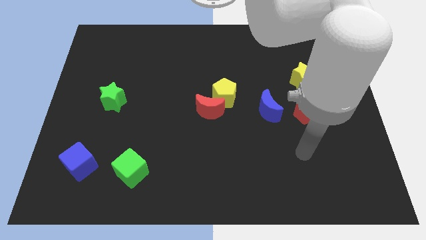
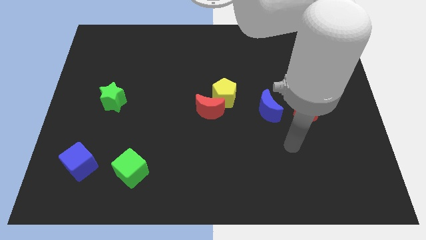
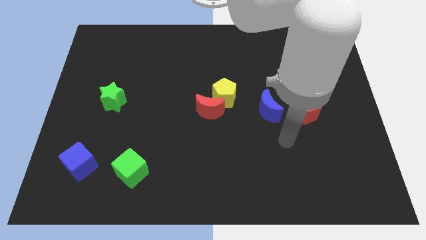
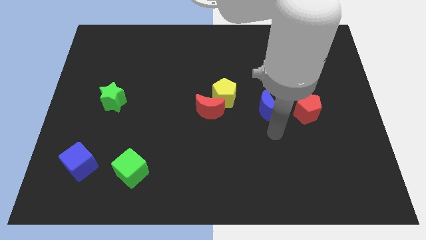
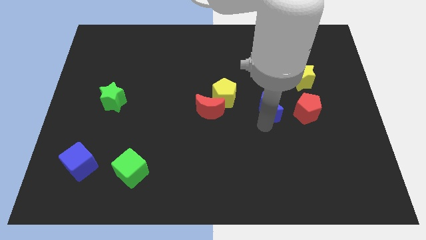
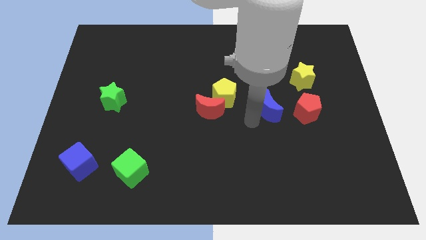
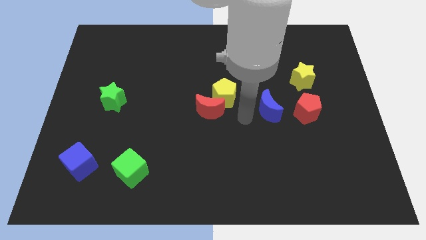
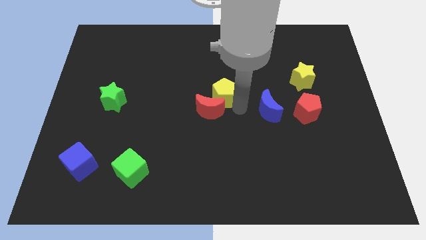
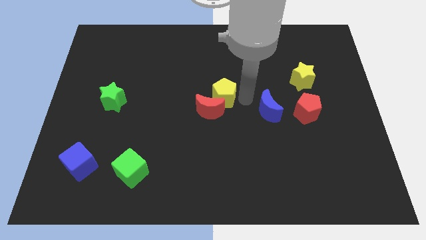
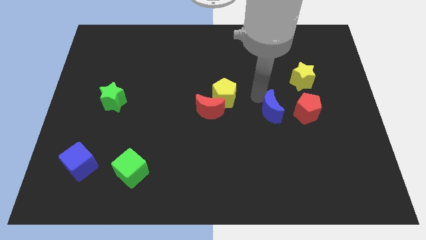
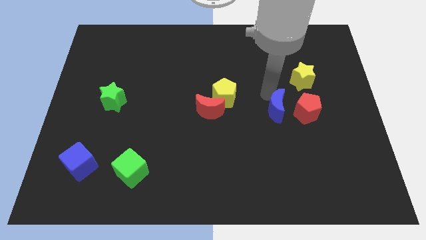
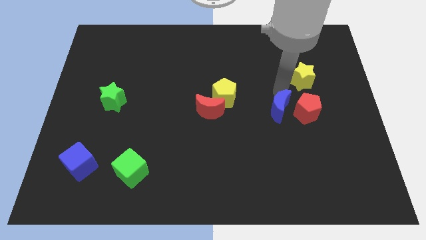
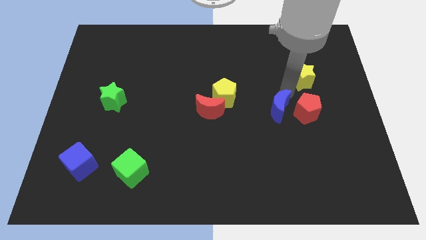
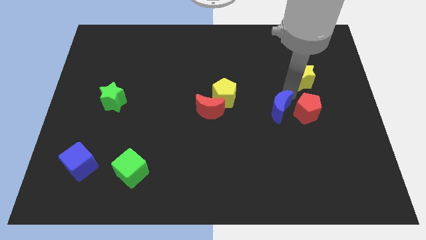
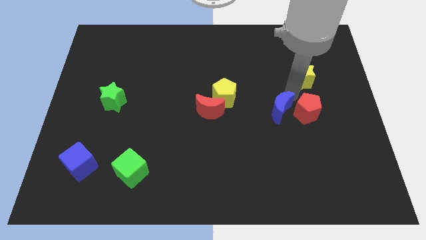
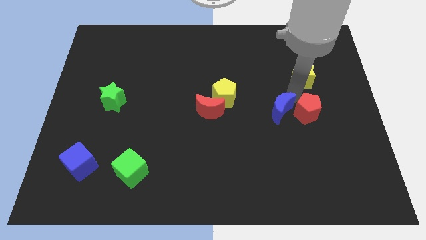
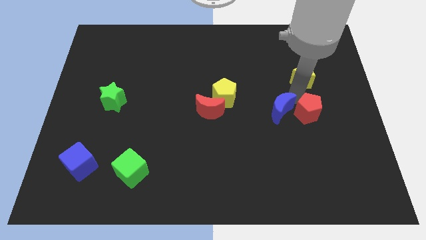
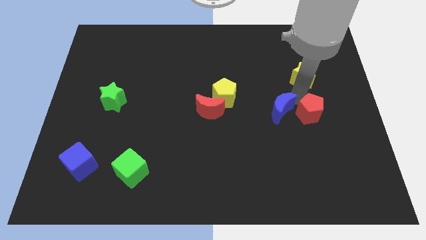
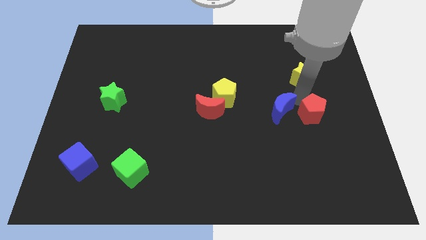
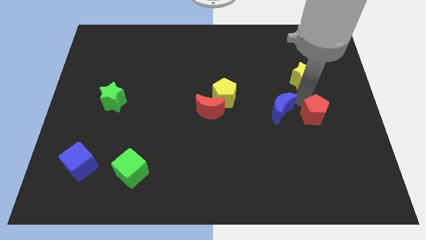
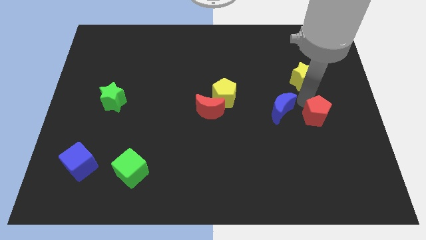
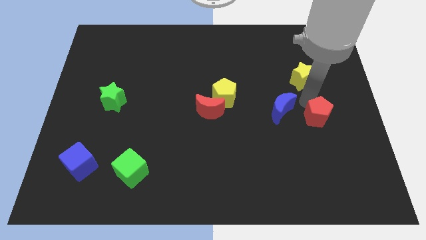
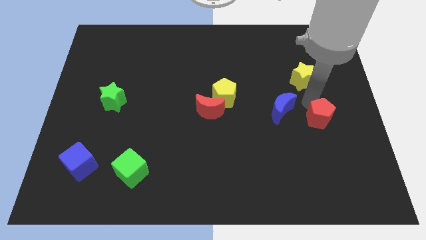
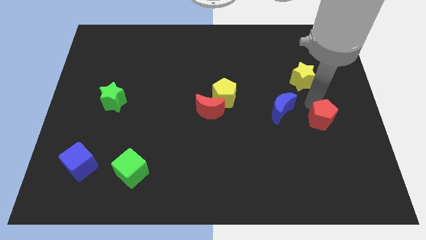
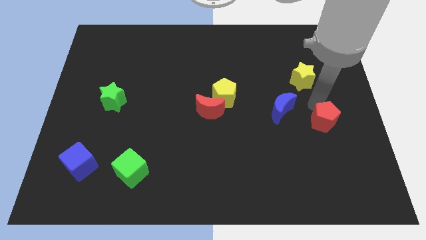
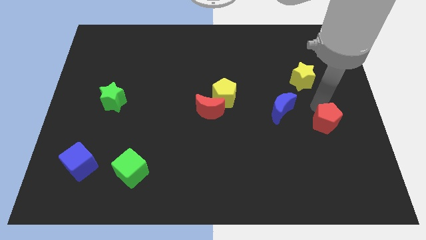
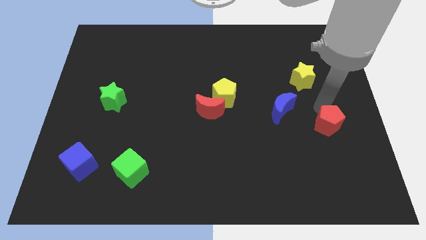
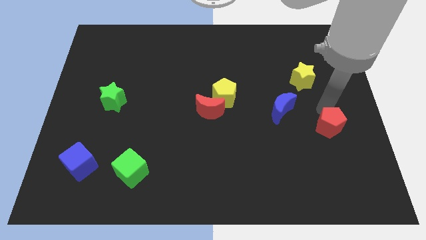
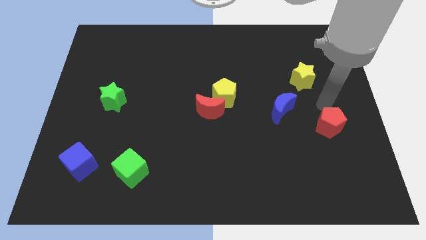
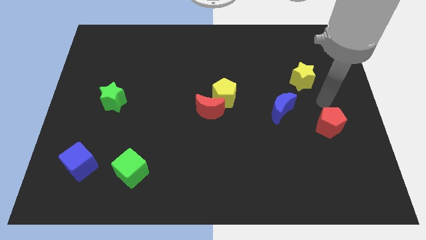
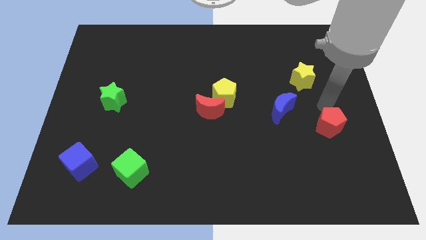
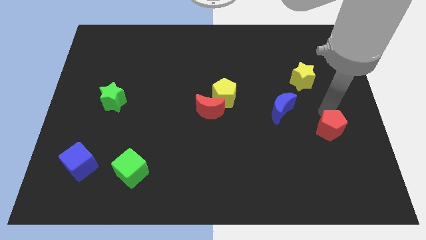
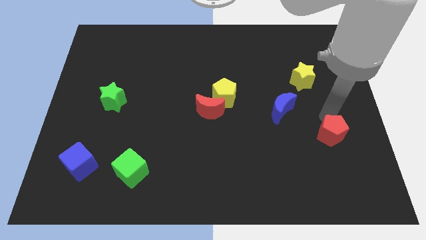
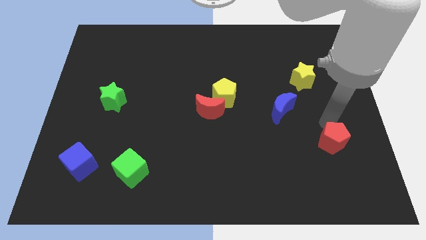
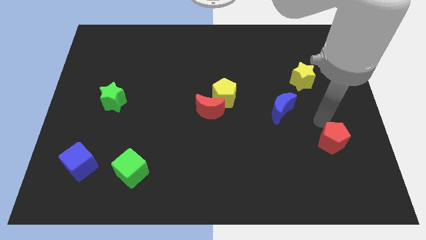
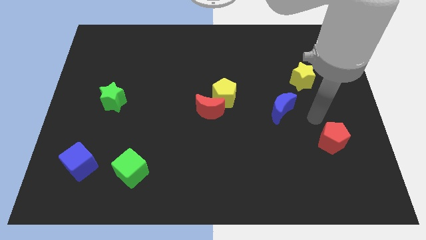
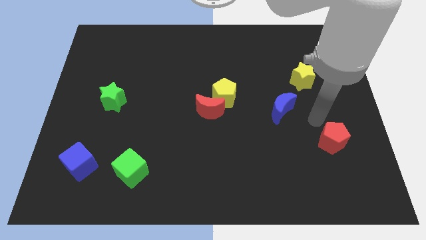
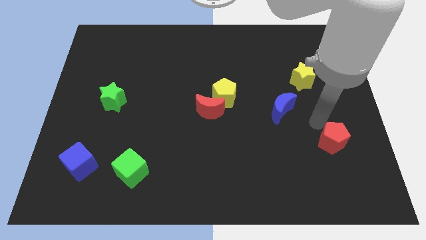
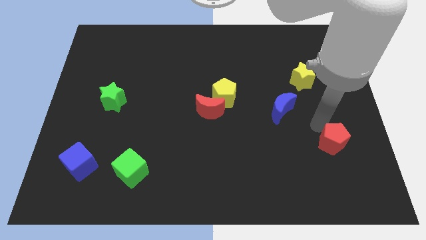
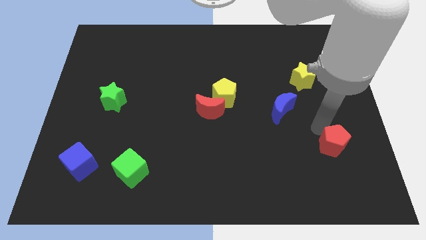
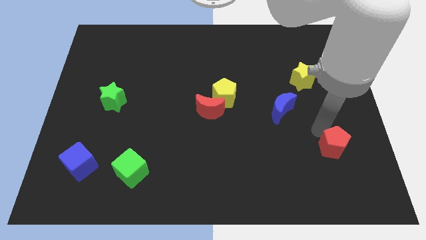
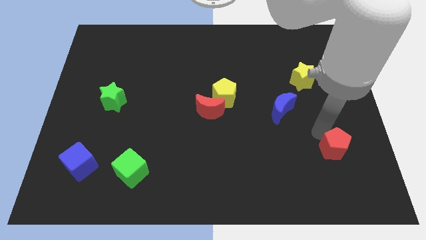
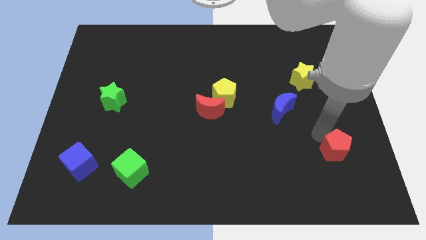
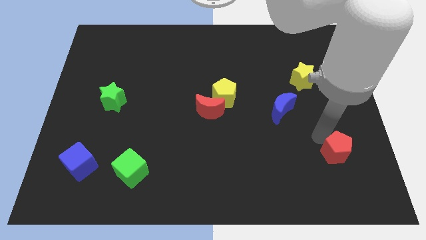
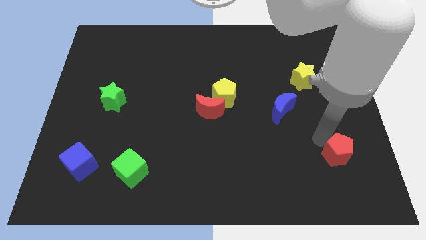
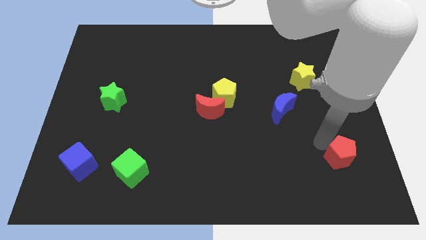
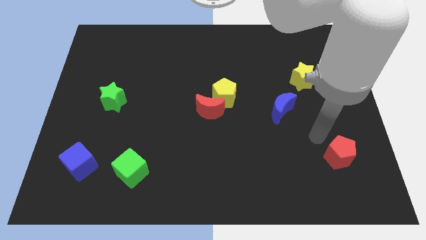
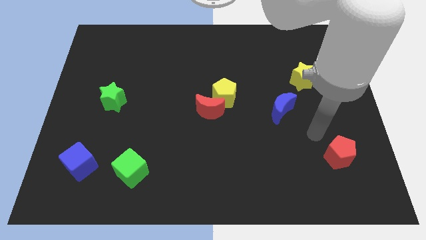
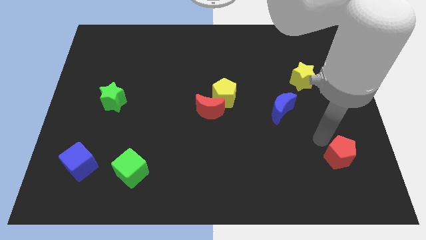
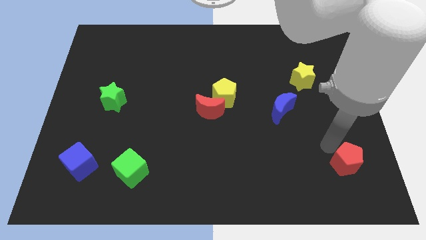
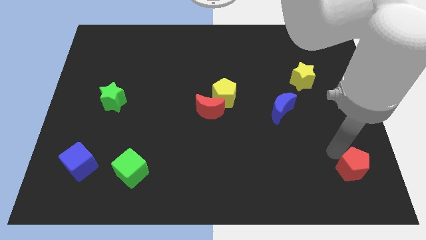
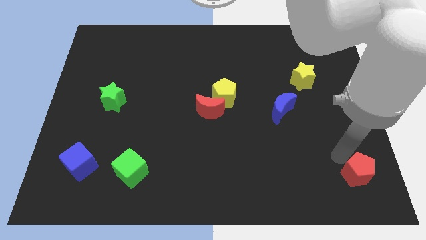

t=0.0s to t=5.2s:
put the red pentagon to the bottom right of the board

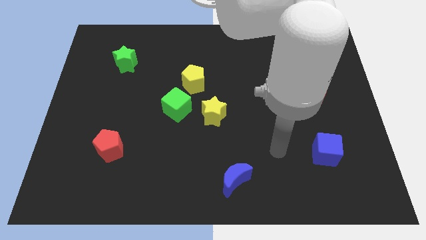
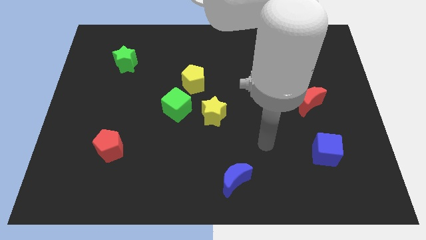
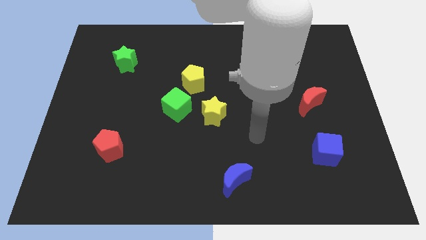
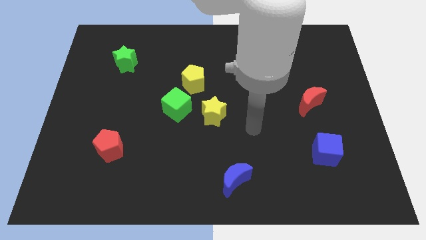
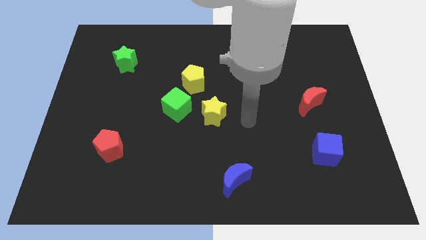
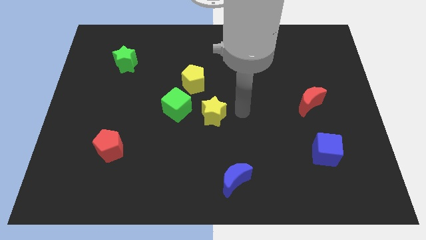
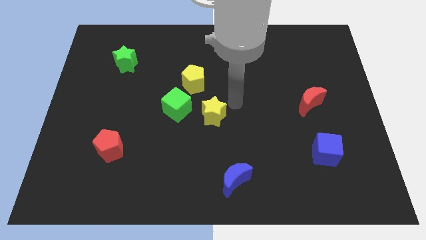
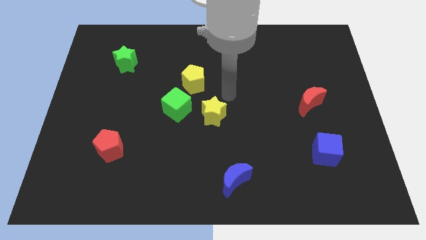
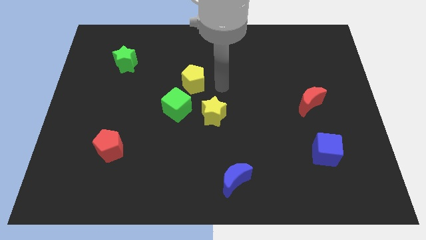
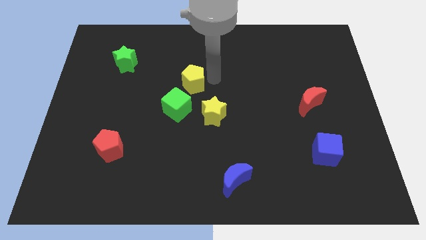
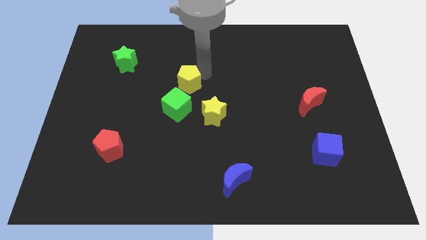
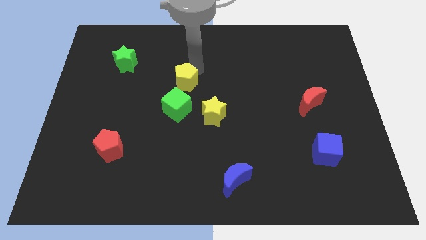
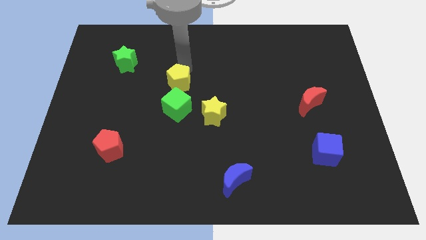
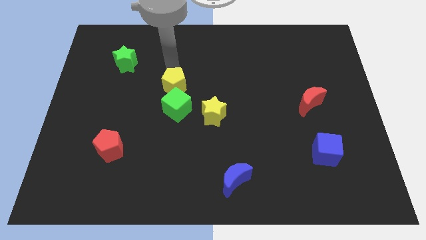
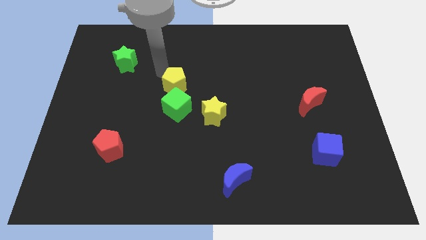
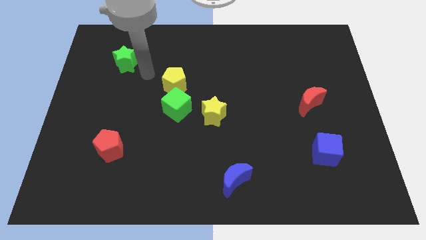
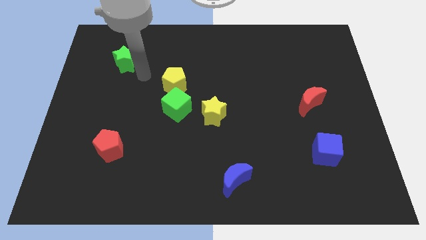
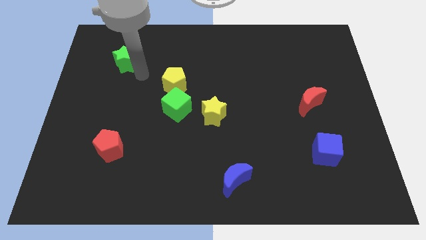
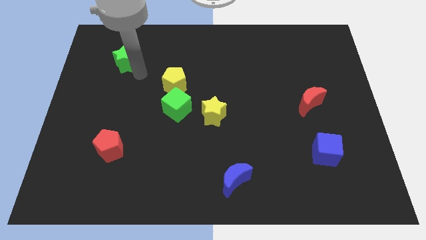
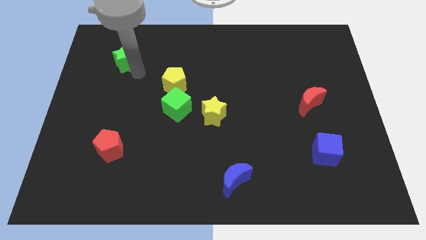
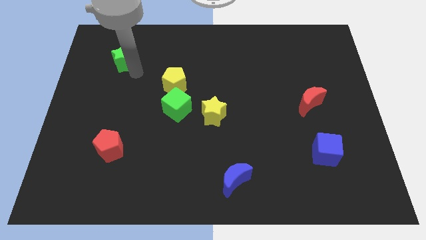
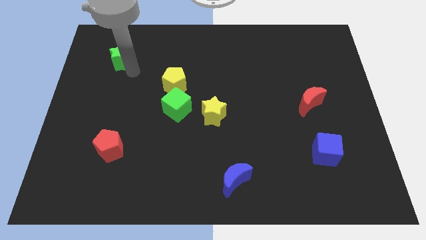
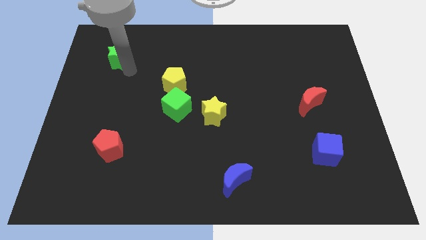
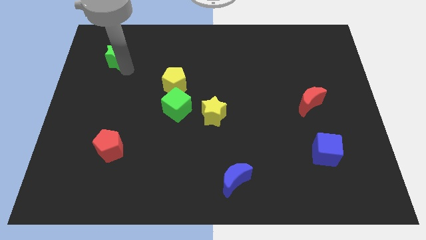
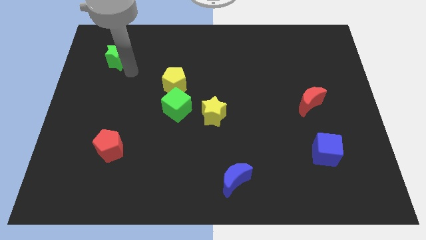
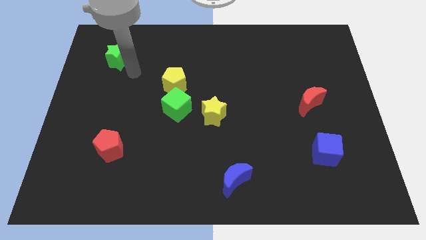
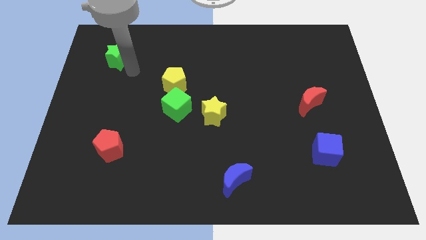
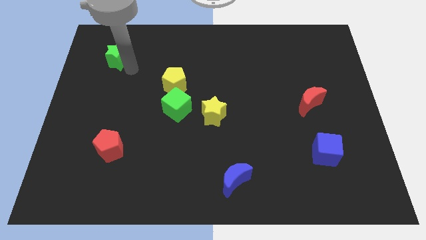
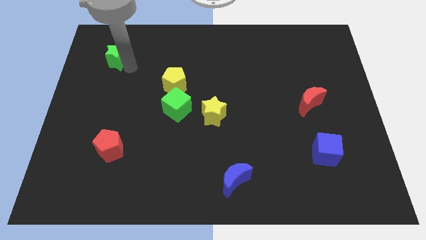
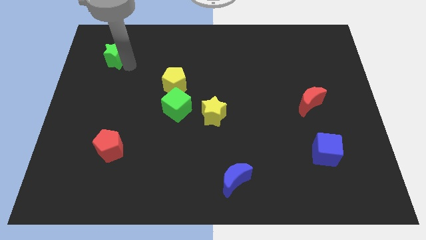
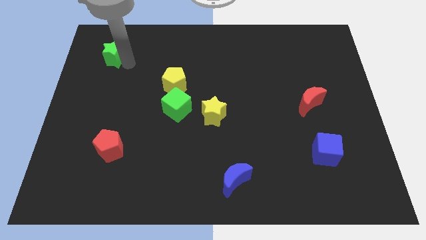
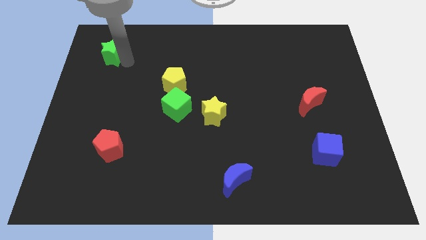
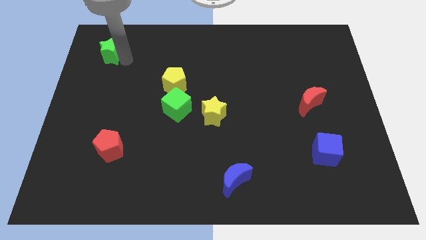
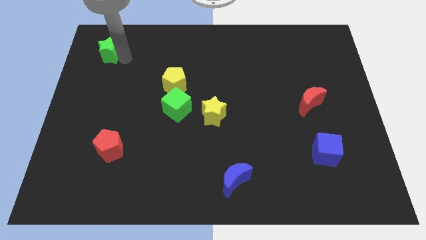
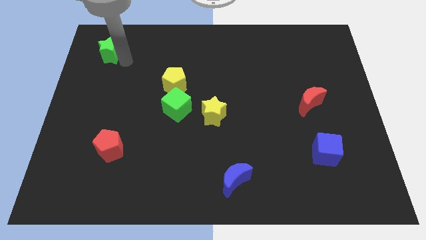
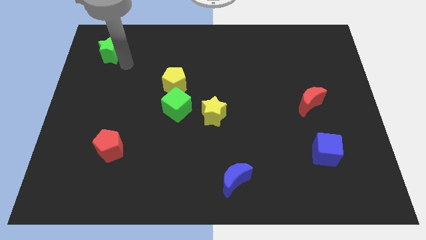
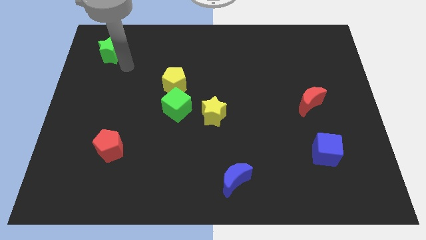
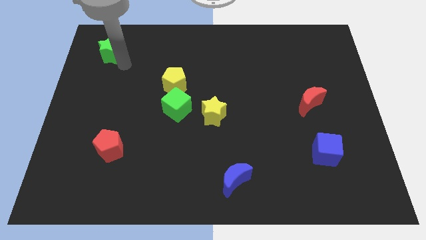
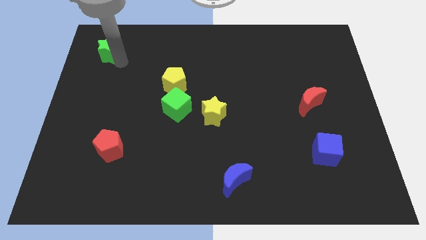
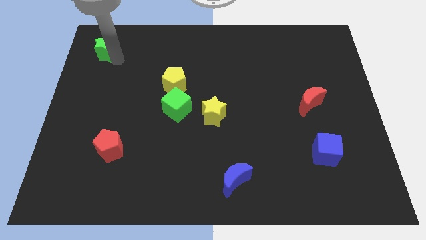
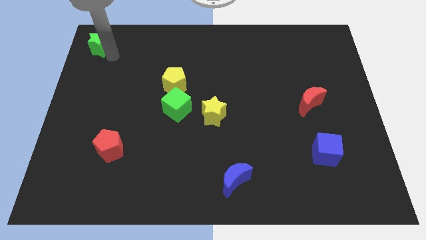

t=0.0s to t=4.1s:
put the green star to the top left of the board
